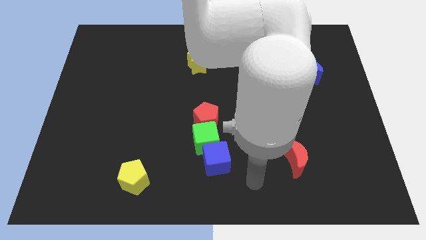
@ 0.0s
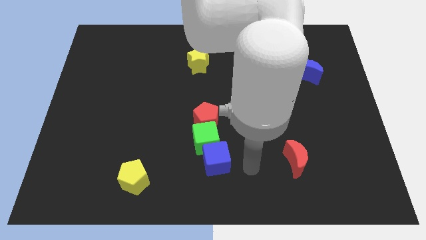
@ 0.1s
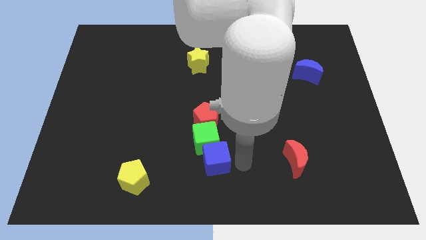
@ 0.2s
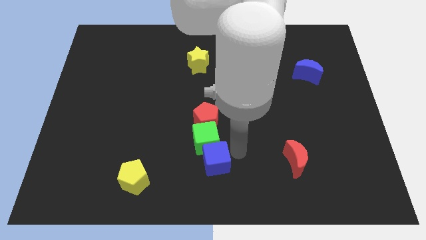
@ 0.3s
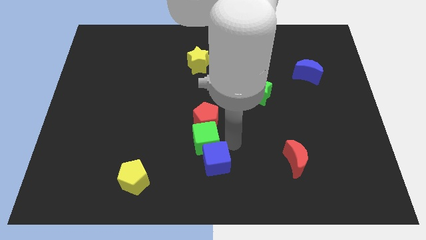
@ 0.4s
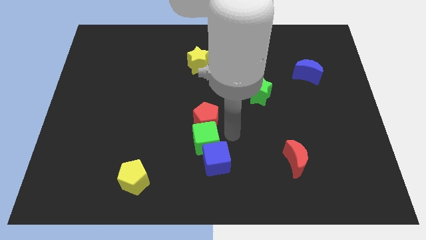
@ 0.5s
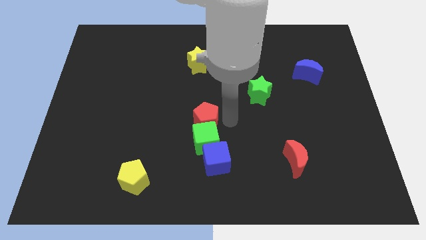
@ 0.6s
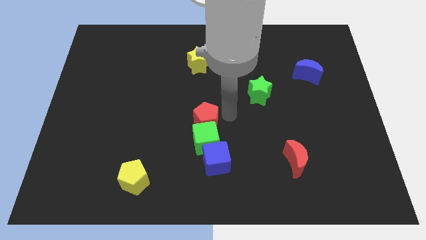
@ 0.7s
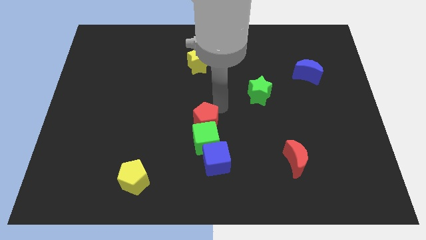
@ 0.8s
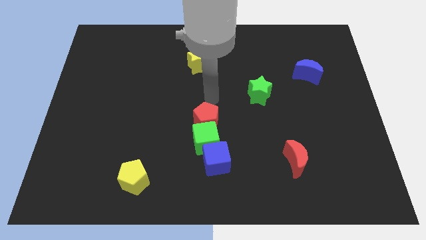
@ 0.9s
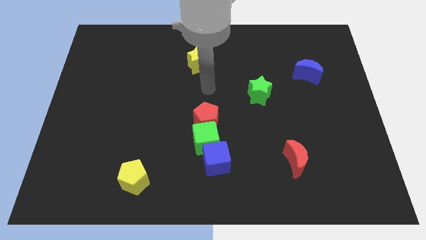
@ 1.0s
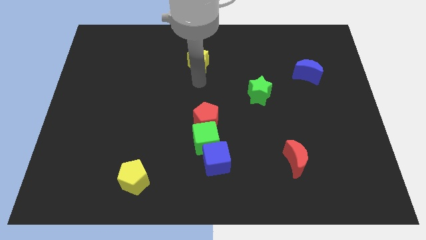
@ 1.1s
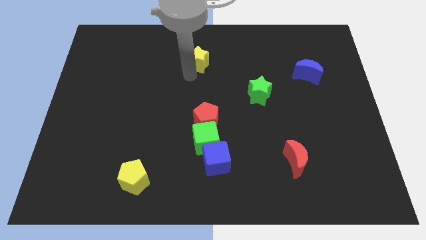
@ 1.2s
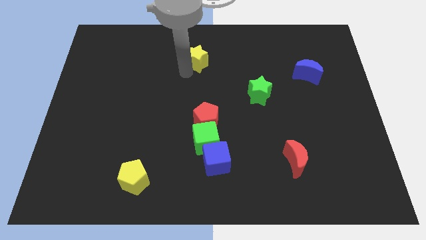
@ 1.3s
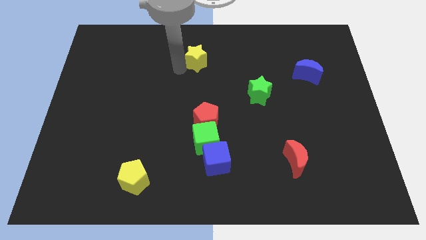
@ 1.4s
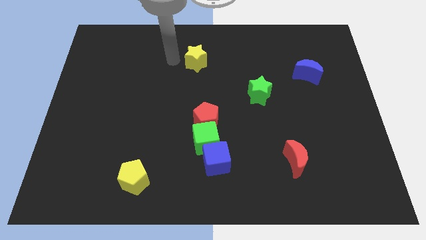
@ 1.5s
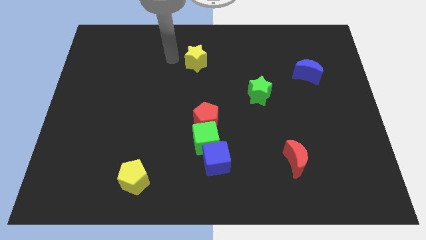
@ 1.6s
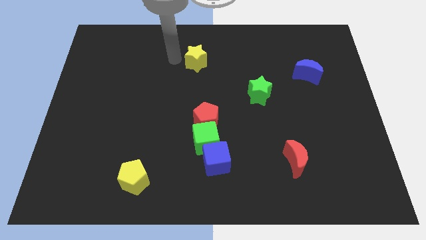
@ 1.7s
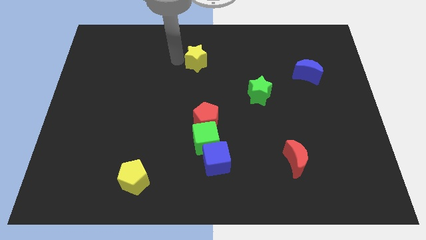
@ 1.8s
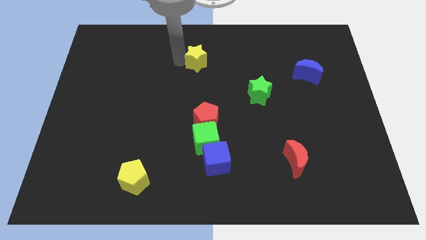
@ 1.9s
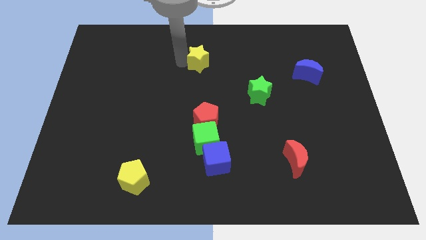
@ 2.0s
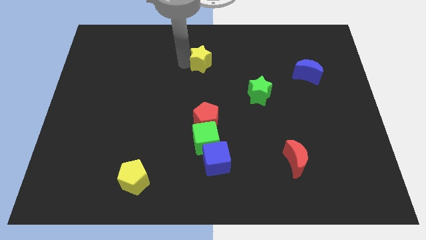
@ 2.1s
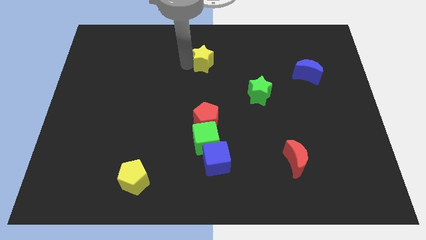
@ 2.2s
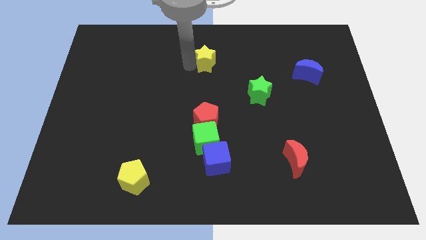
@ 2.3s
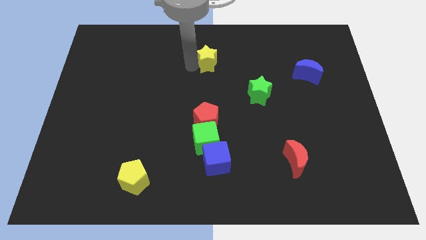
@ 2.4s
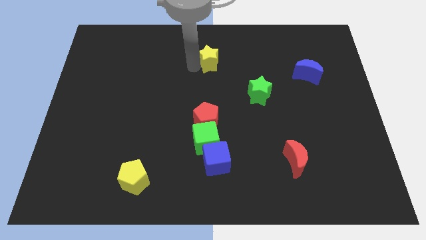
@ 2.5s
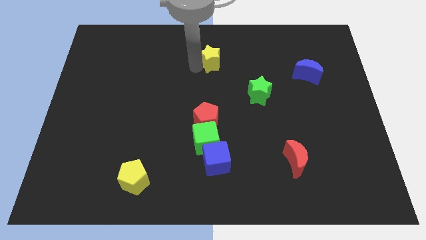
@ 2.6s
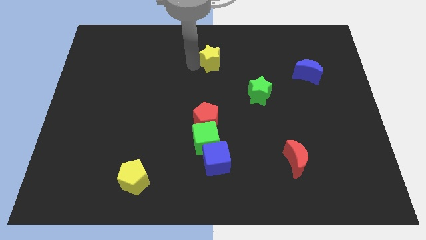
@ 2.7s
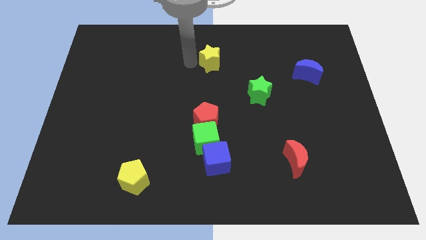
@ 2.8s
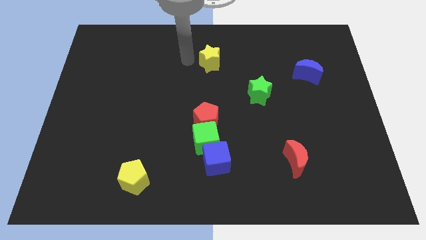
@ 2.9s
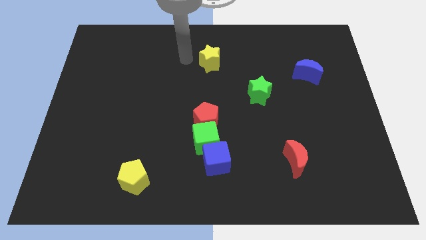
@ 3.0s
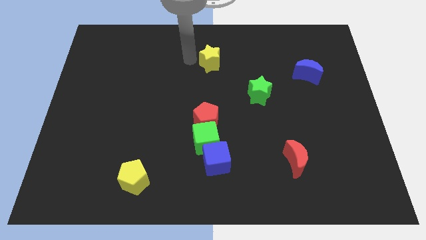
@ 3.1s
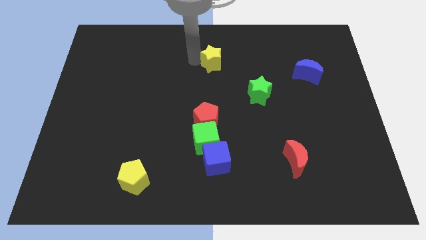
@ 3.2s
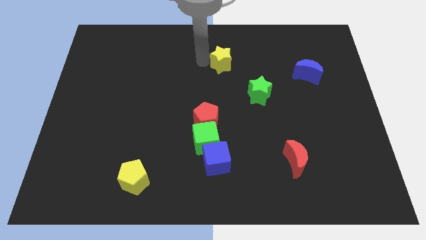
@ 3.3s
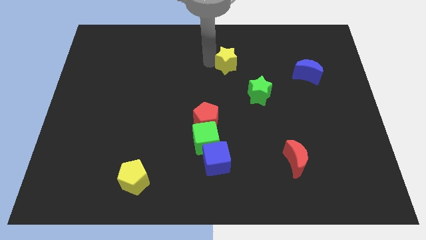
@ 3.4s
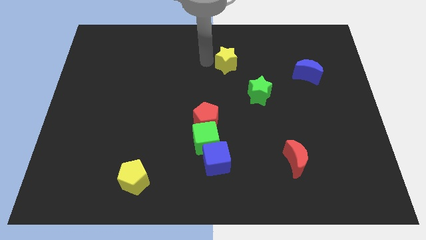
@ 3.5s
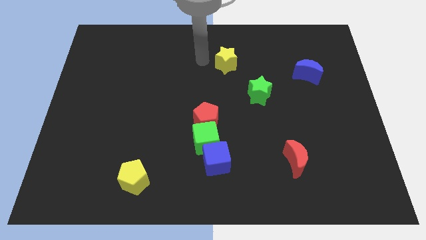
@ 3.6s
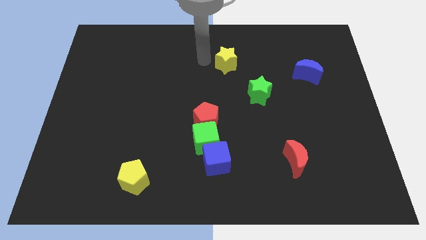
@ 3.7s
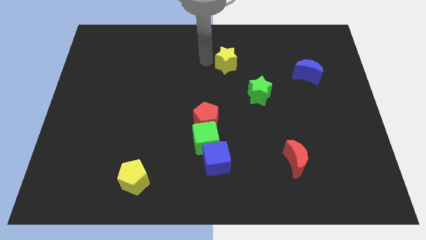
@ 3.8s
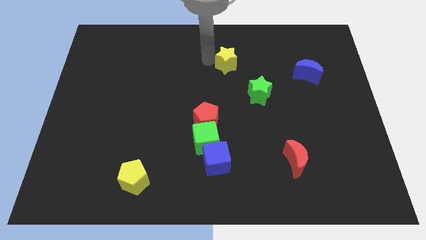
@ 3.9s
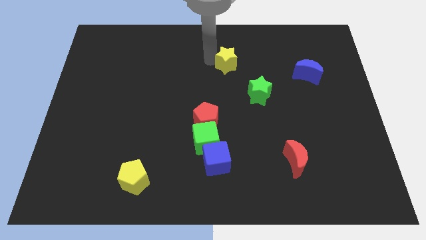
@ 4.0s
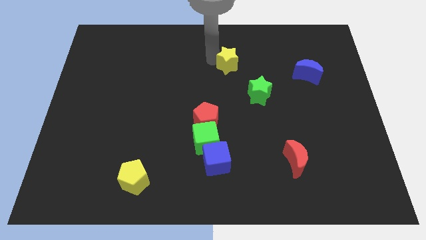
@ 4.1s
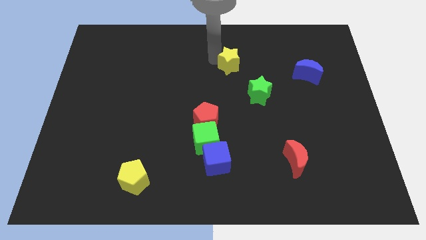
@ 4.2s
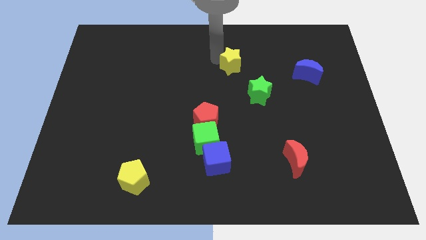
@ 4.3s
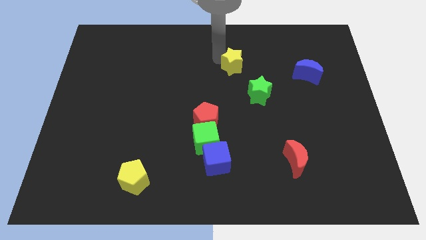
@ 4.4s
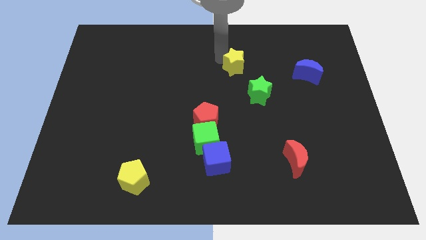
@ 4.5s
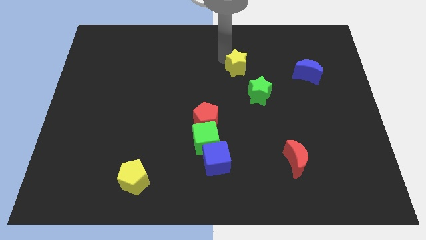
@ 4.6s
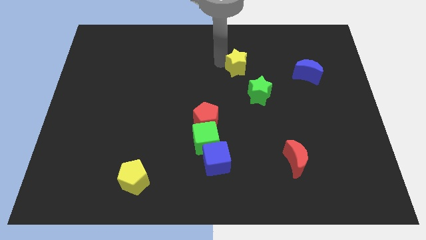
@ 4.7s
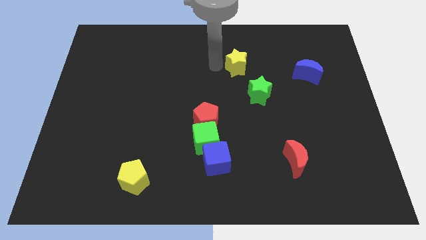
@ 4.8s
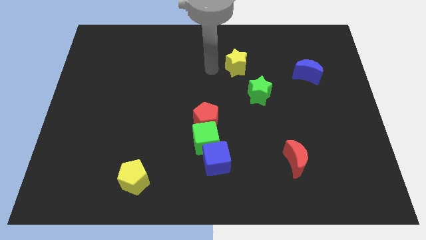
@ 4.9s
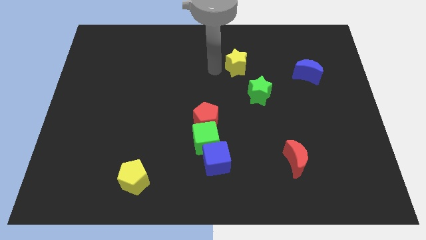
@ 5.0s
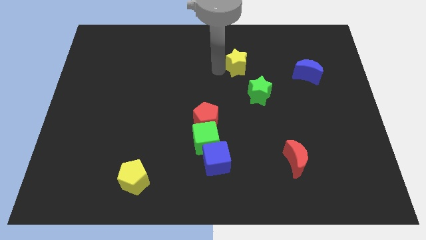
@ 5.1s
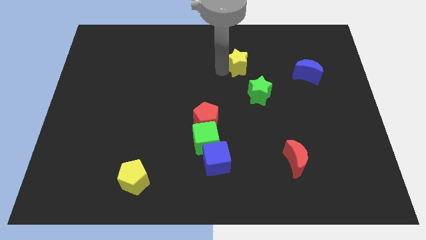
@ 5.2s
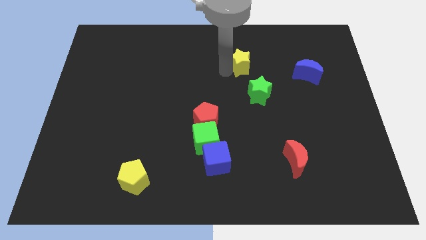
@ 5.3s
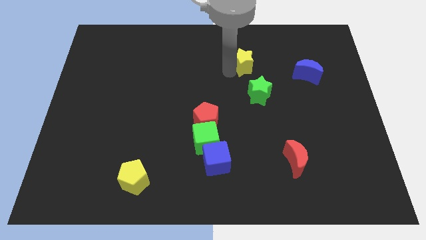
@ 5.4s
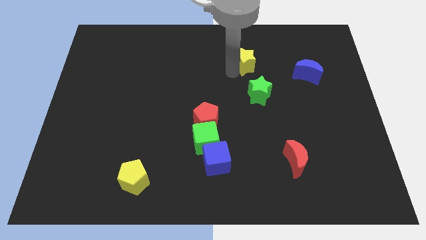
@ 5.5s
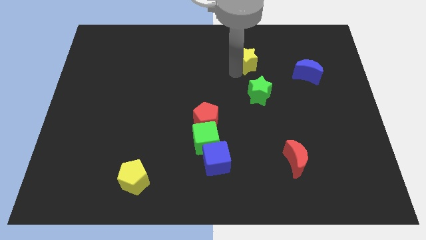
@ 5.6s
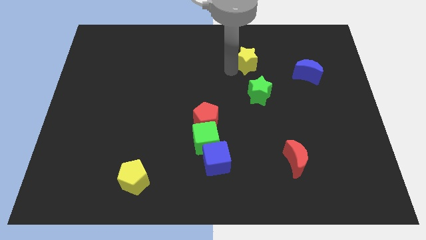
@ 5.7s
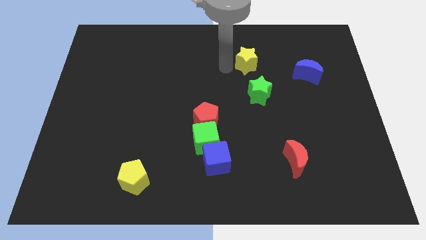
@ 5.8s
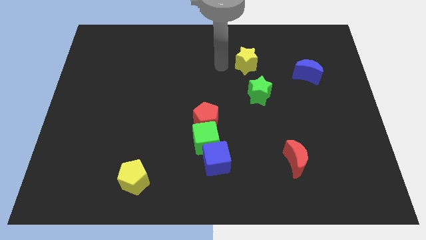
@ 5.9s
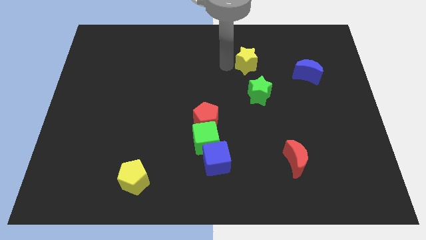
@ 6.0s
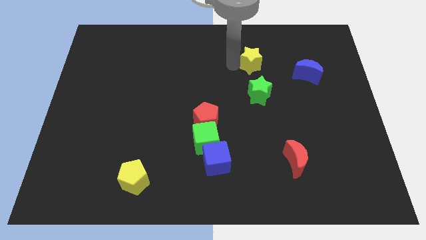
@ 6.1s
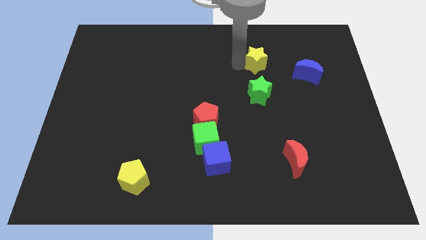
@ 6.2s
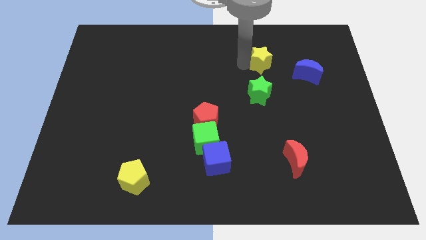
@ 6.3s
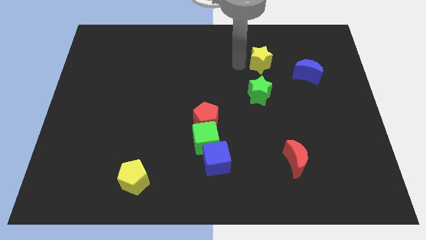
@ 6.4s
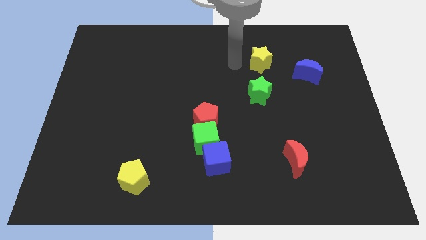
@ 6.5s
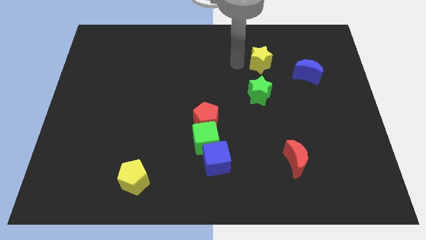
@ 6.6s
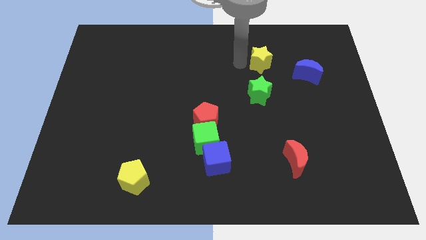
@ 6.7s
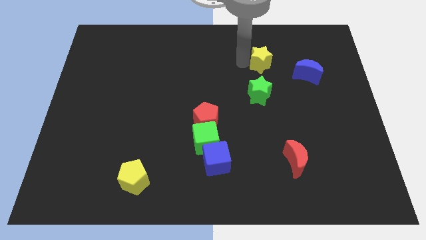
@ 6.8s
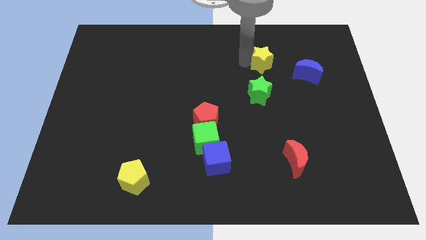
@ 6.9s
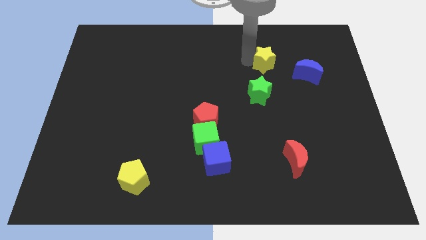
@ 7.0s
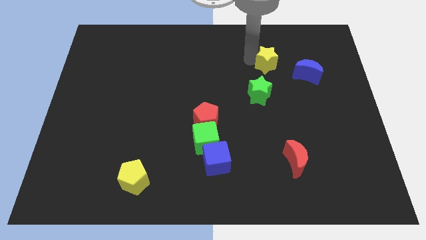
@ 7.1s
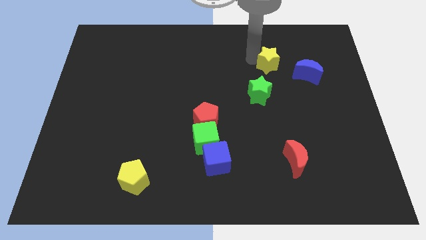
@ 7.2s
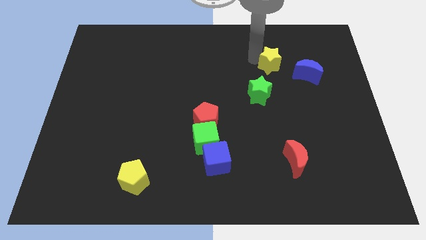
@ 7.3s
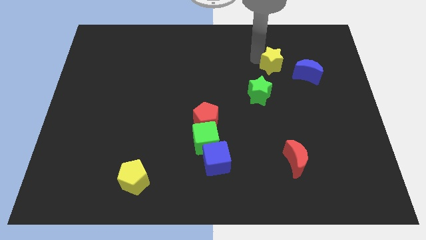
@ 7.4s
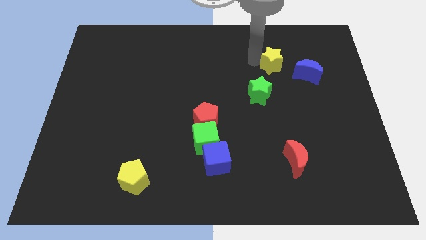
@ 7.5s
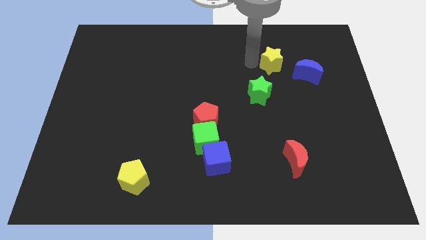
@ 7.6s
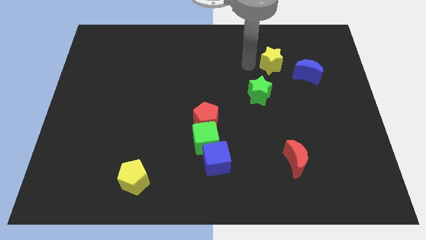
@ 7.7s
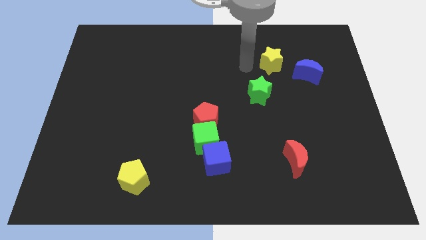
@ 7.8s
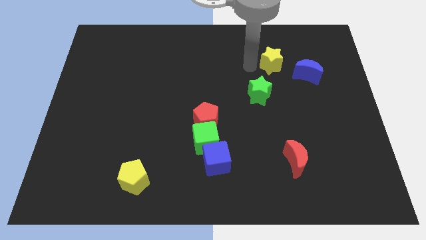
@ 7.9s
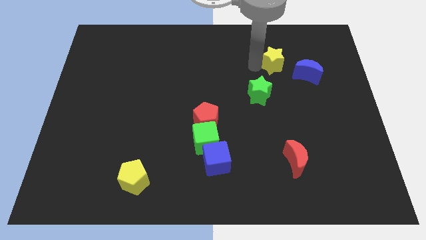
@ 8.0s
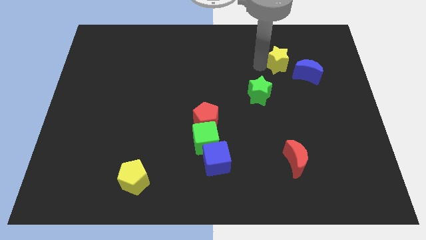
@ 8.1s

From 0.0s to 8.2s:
push the yellow star right
